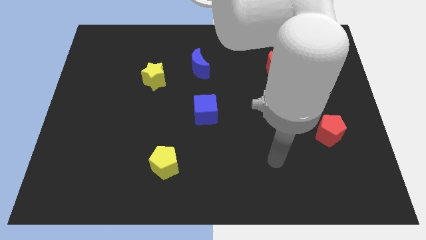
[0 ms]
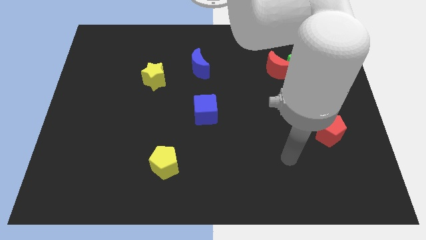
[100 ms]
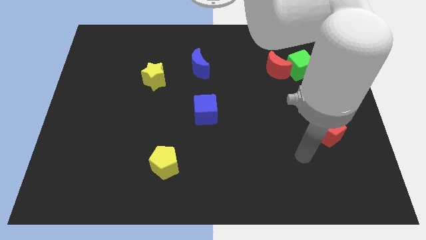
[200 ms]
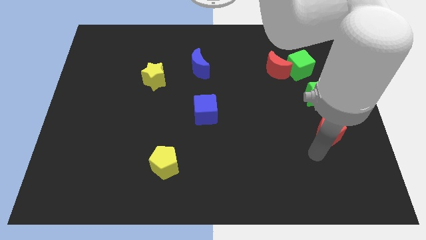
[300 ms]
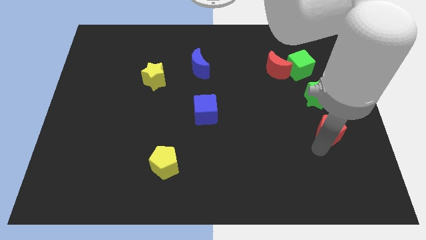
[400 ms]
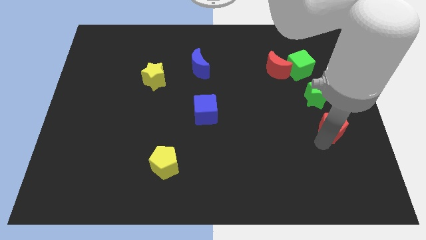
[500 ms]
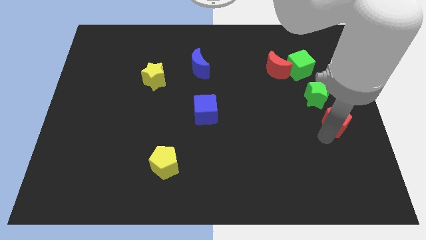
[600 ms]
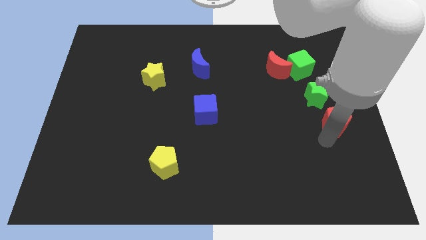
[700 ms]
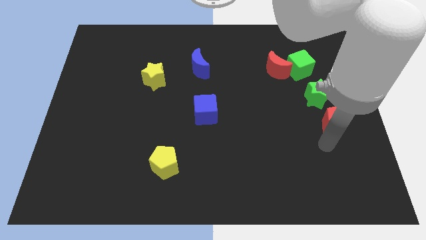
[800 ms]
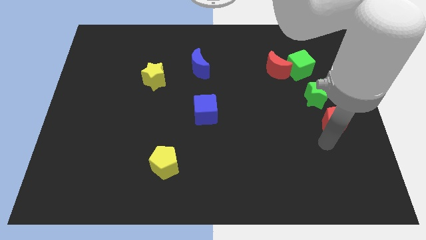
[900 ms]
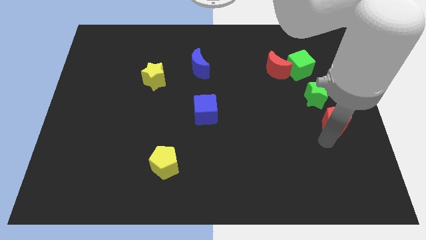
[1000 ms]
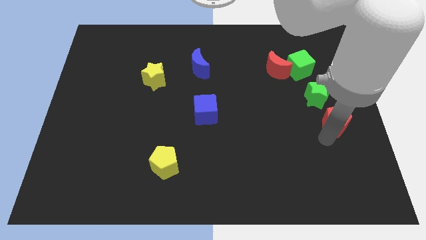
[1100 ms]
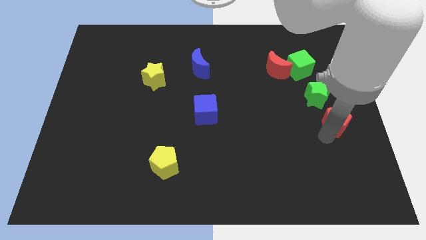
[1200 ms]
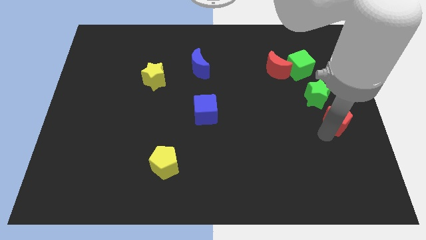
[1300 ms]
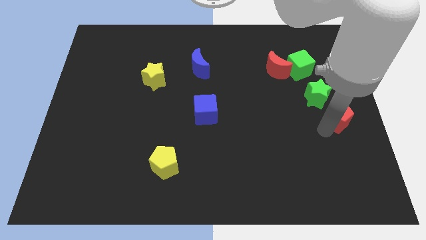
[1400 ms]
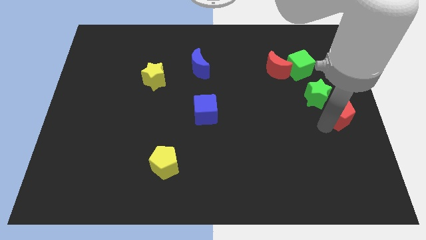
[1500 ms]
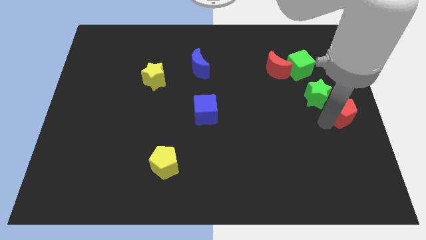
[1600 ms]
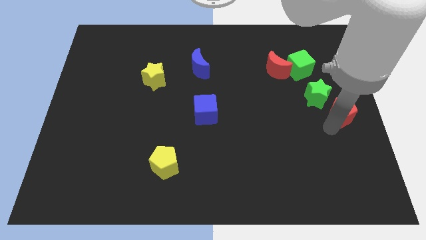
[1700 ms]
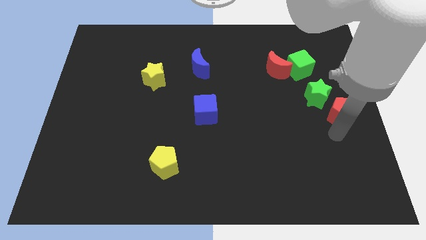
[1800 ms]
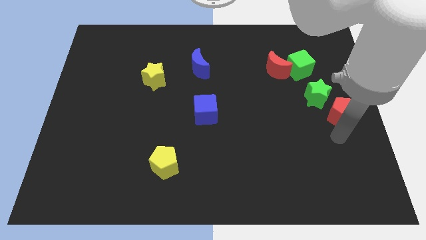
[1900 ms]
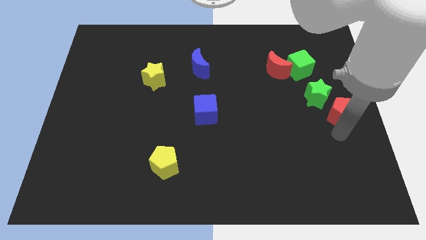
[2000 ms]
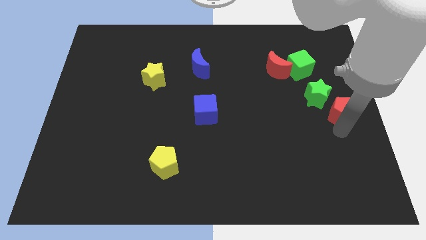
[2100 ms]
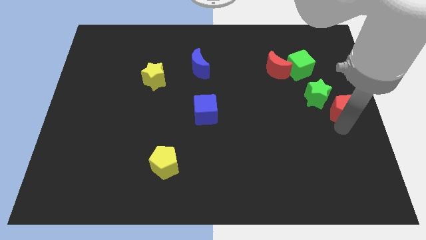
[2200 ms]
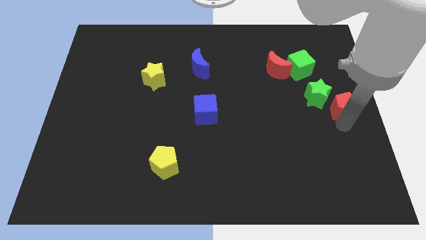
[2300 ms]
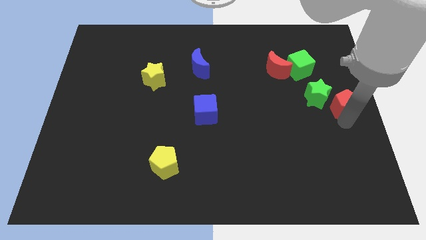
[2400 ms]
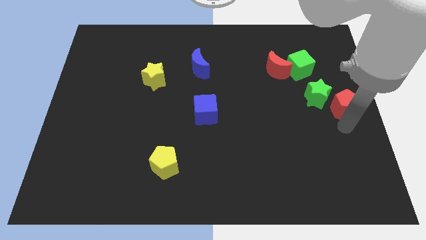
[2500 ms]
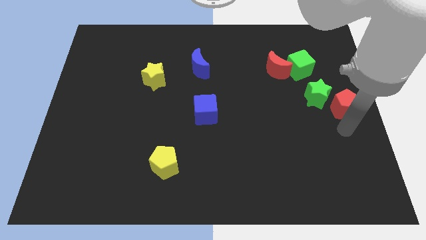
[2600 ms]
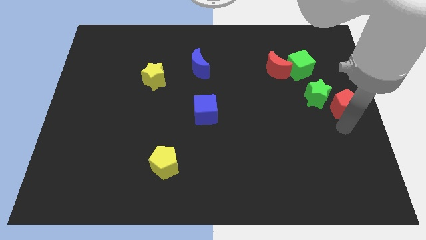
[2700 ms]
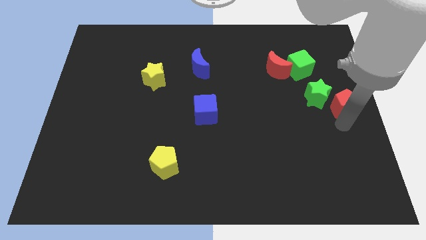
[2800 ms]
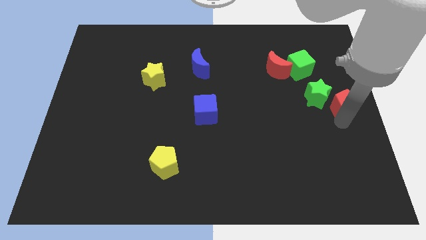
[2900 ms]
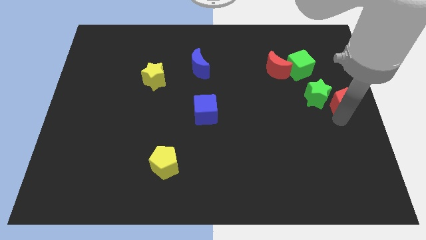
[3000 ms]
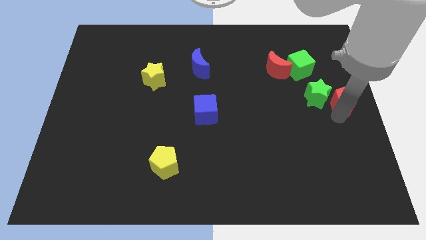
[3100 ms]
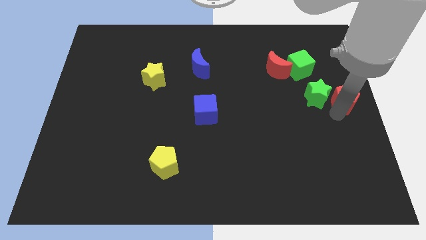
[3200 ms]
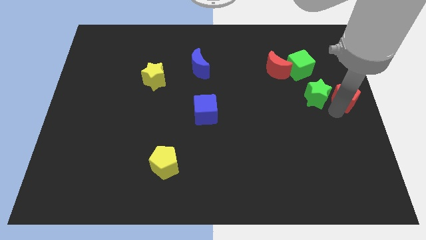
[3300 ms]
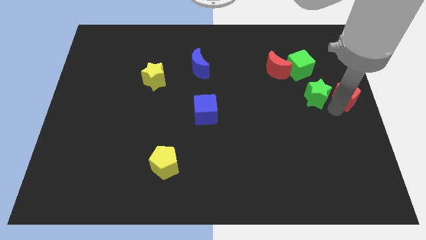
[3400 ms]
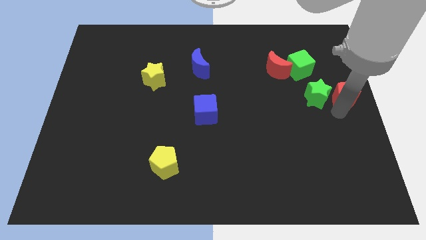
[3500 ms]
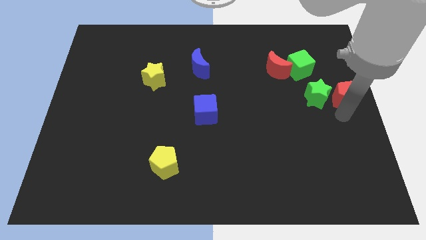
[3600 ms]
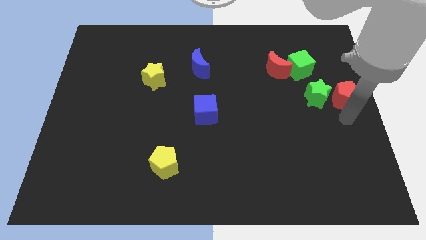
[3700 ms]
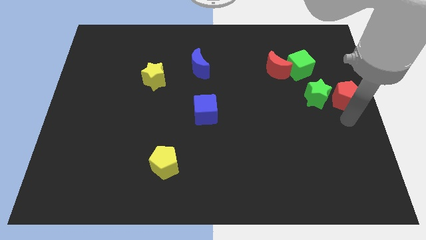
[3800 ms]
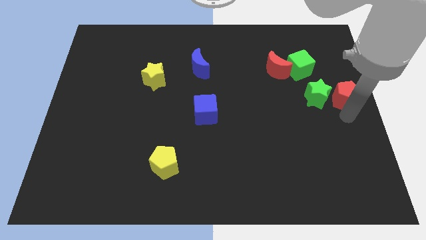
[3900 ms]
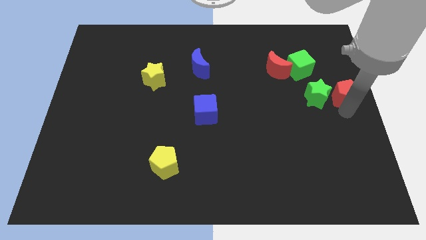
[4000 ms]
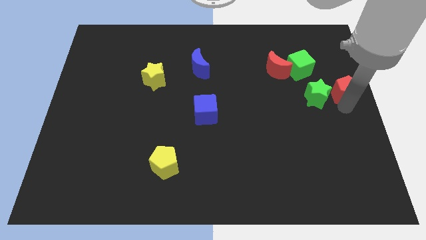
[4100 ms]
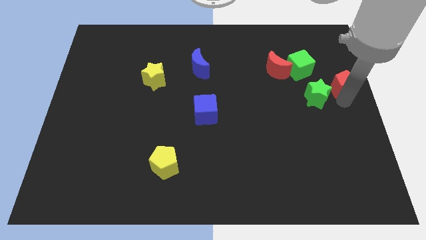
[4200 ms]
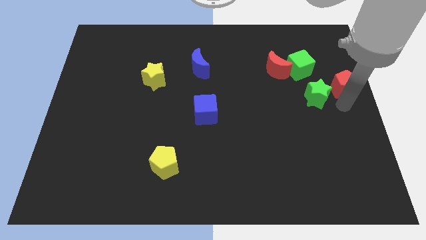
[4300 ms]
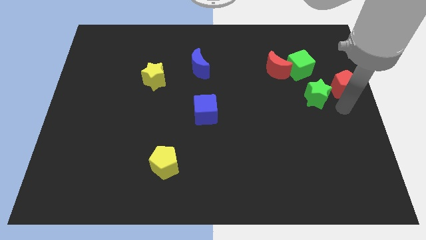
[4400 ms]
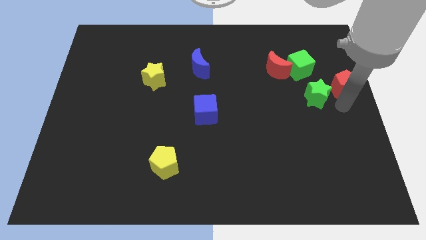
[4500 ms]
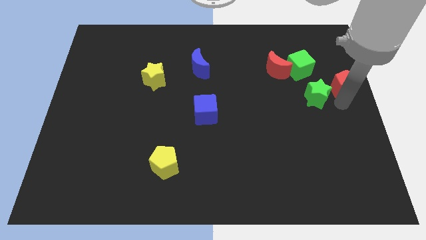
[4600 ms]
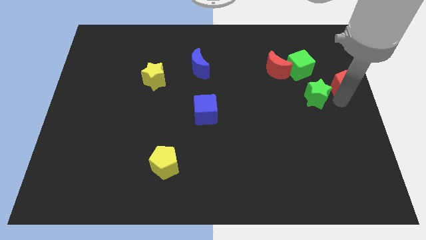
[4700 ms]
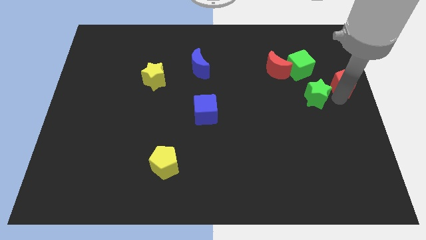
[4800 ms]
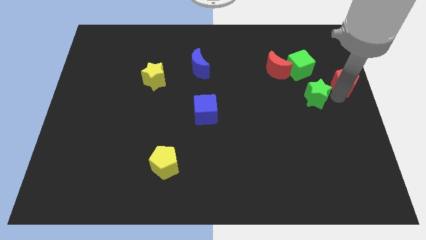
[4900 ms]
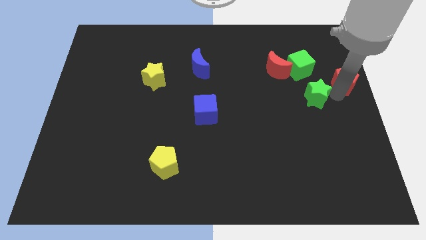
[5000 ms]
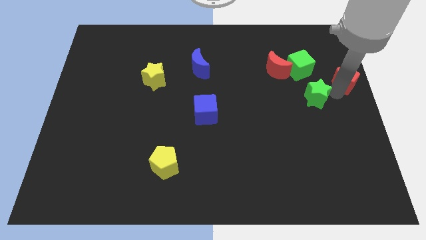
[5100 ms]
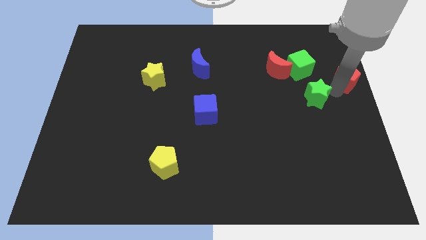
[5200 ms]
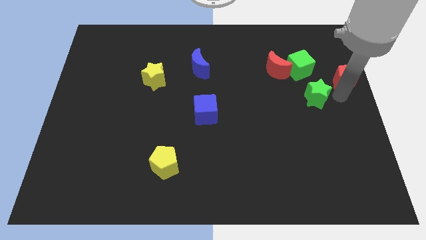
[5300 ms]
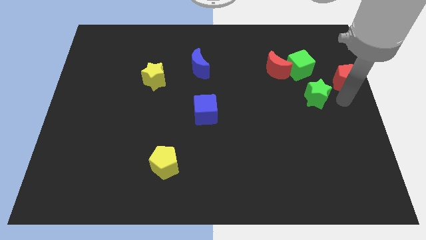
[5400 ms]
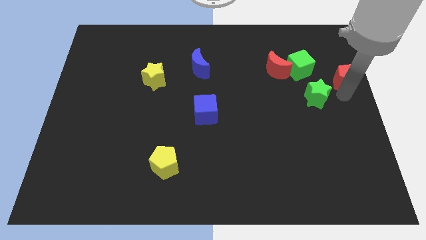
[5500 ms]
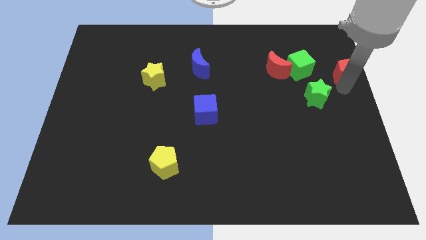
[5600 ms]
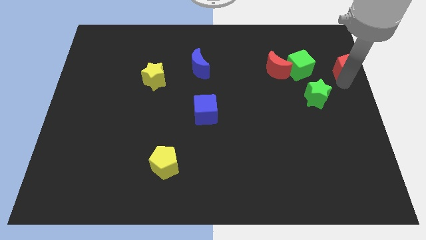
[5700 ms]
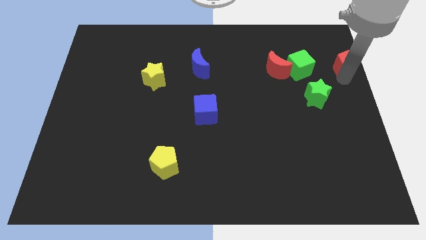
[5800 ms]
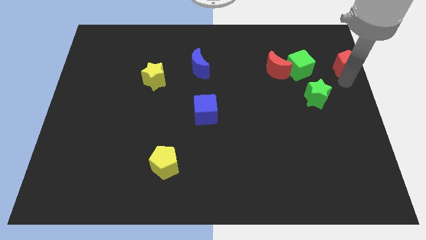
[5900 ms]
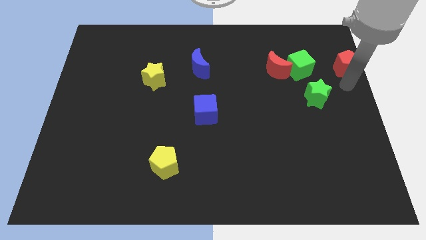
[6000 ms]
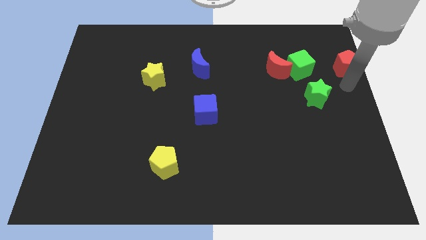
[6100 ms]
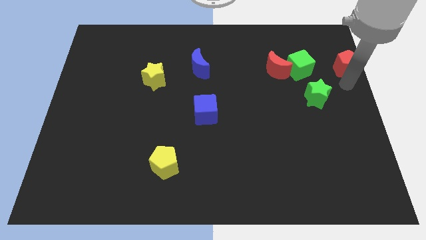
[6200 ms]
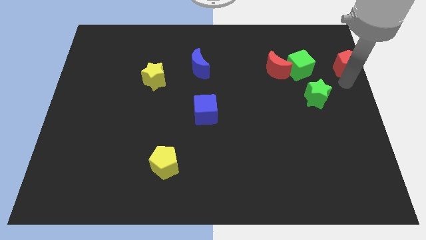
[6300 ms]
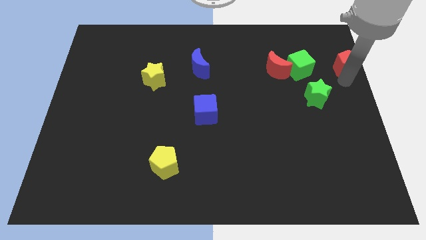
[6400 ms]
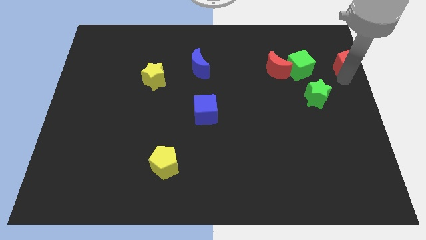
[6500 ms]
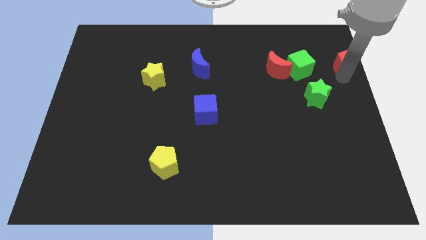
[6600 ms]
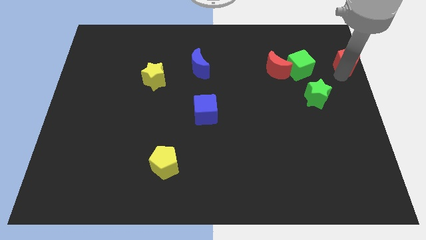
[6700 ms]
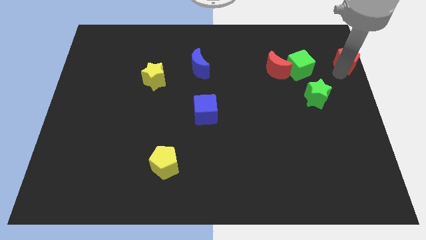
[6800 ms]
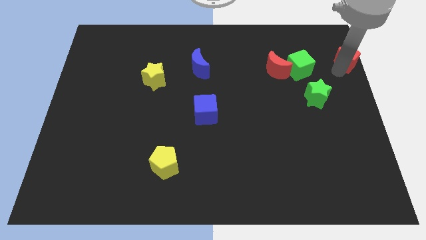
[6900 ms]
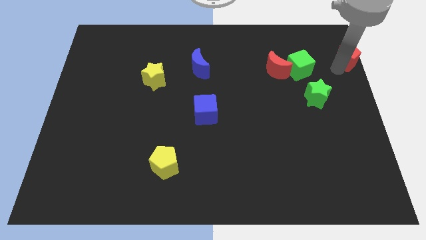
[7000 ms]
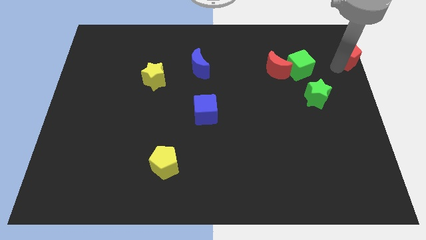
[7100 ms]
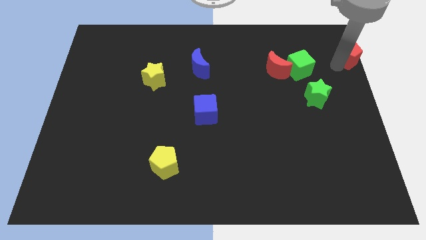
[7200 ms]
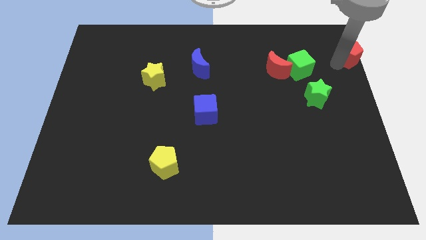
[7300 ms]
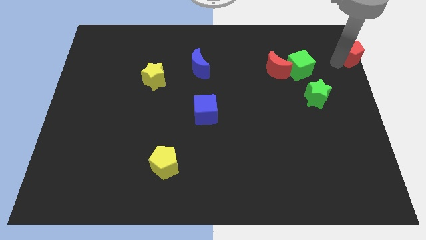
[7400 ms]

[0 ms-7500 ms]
push the red pentagon to the top right
